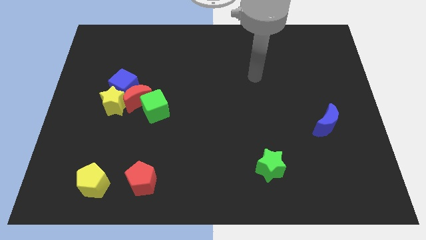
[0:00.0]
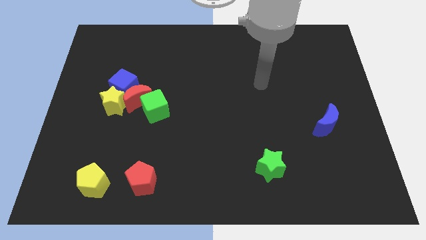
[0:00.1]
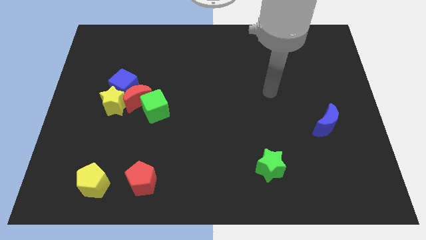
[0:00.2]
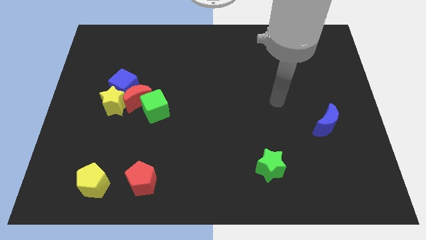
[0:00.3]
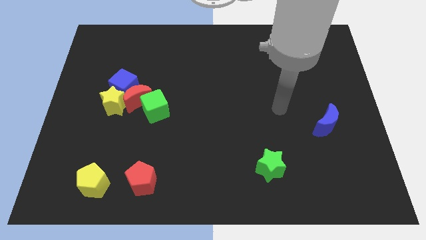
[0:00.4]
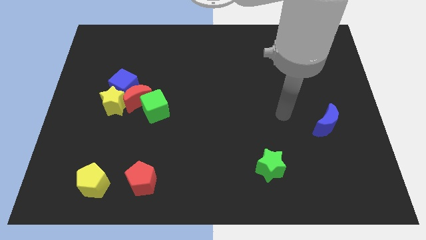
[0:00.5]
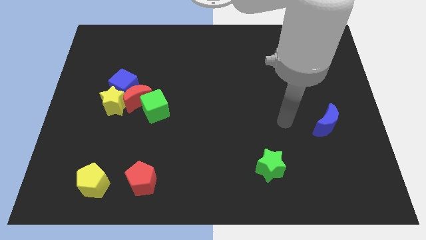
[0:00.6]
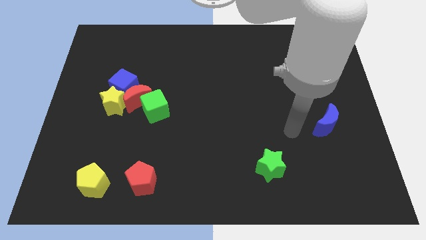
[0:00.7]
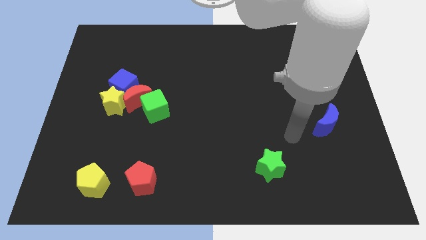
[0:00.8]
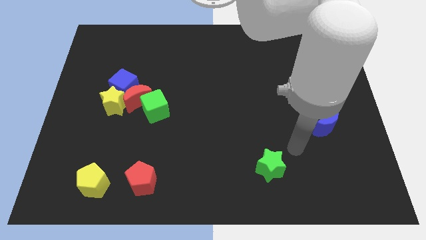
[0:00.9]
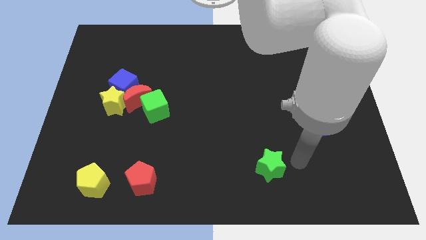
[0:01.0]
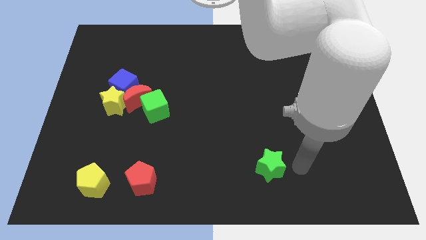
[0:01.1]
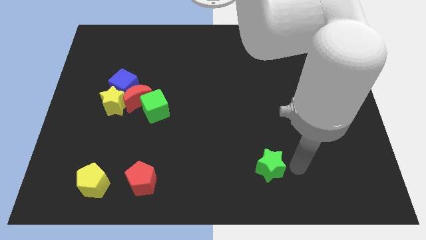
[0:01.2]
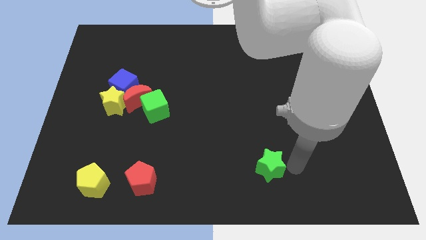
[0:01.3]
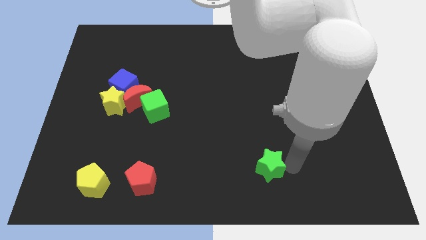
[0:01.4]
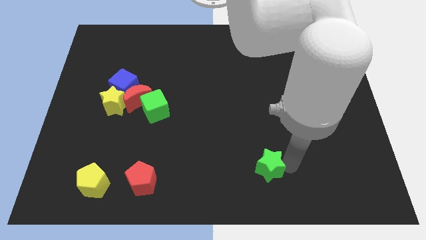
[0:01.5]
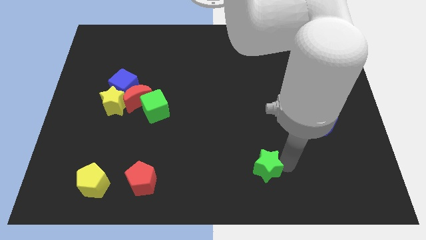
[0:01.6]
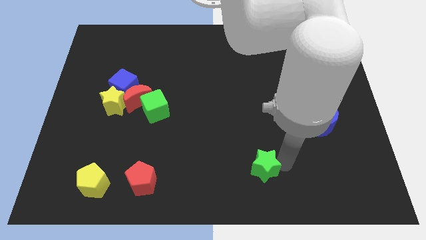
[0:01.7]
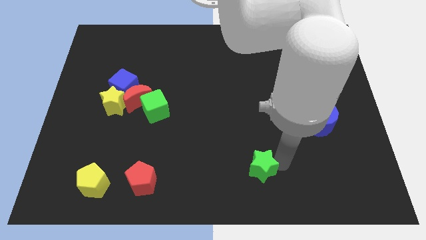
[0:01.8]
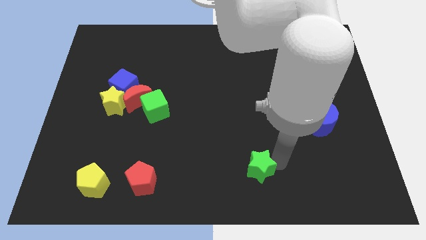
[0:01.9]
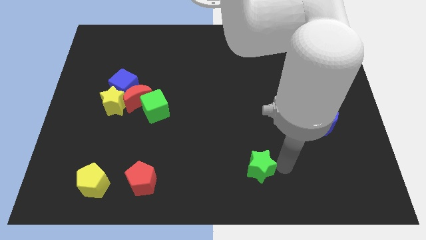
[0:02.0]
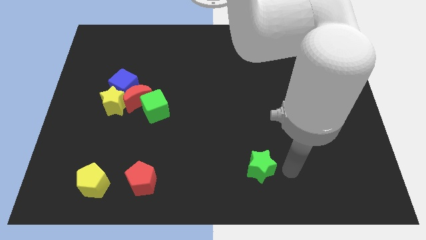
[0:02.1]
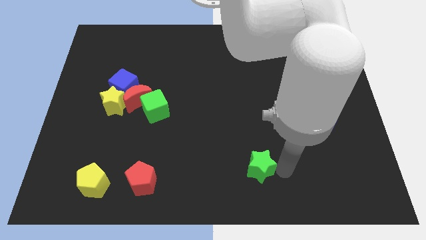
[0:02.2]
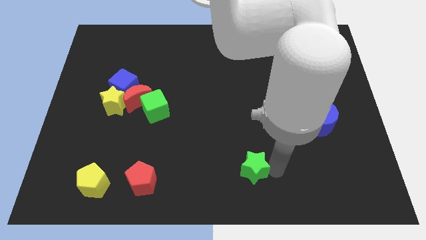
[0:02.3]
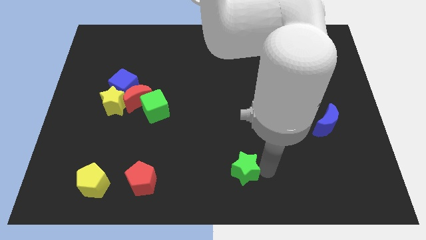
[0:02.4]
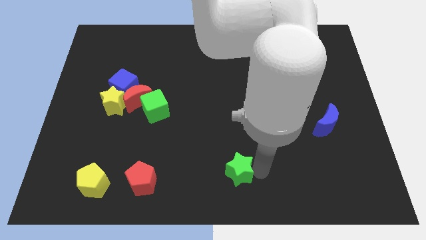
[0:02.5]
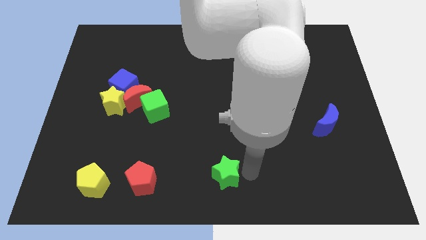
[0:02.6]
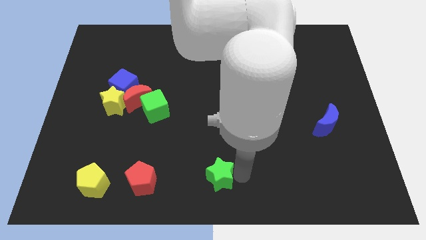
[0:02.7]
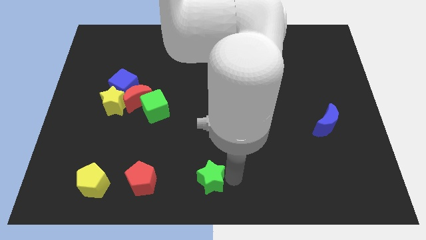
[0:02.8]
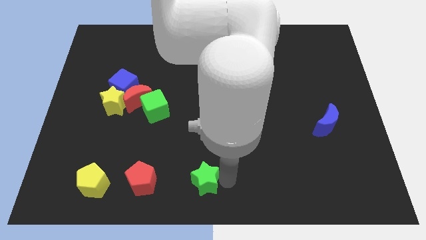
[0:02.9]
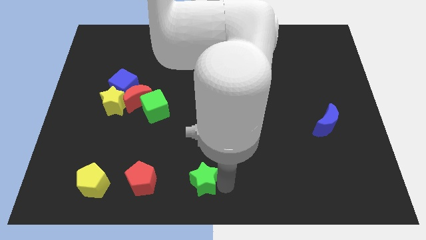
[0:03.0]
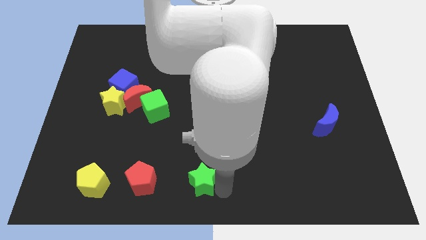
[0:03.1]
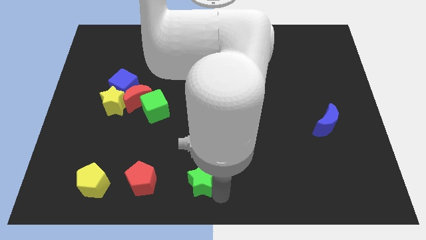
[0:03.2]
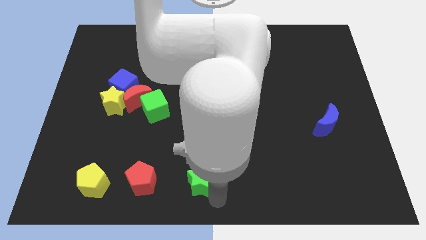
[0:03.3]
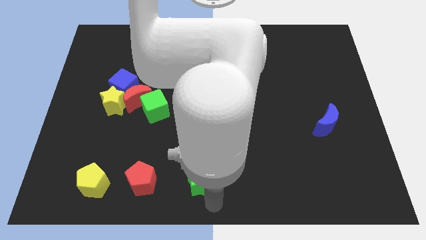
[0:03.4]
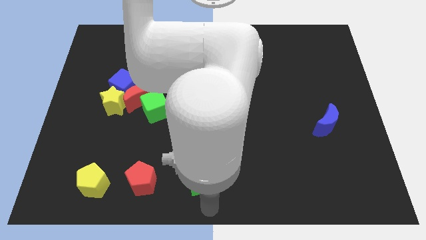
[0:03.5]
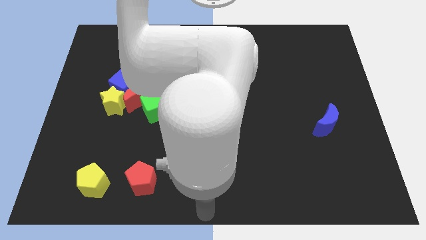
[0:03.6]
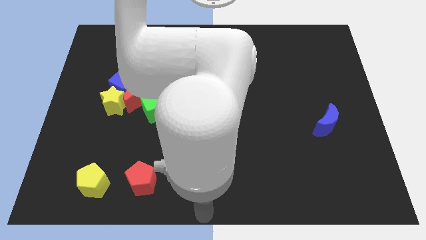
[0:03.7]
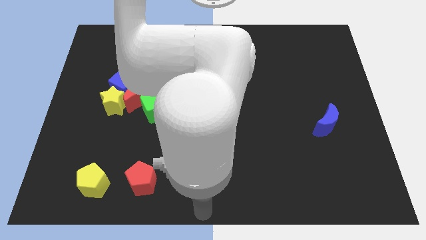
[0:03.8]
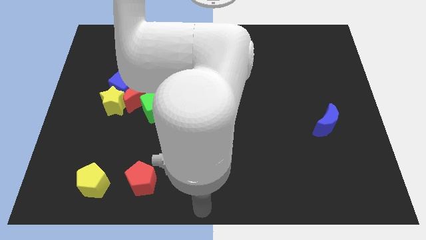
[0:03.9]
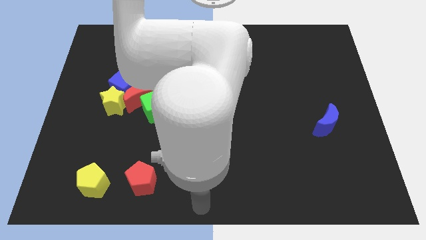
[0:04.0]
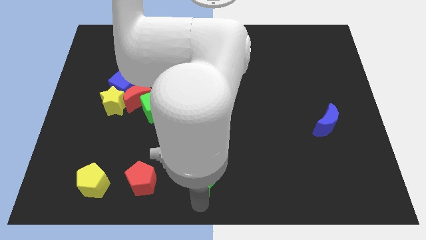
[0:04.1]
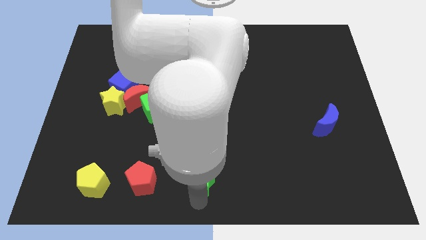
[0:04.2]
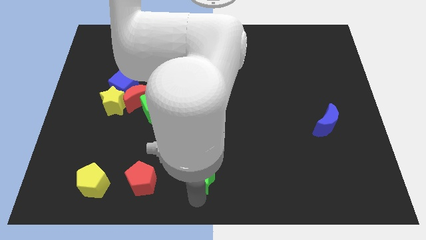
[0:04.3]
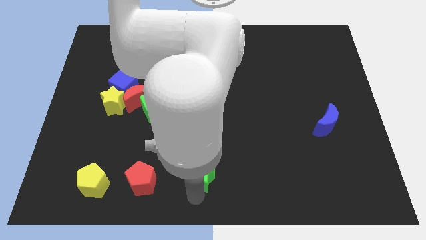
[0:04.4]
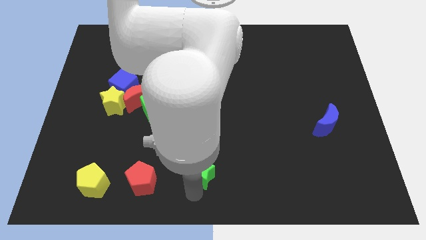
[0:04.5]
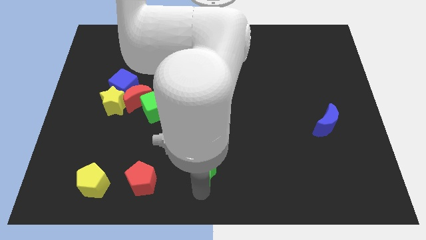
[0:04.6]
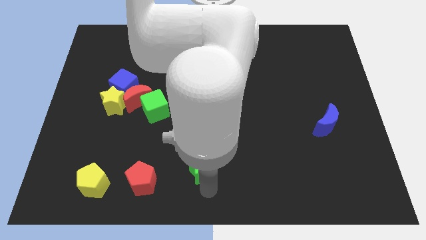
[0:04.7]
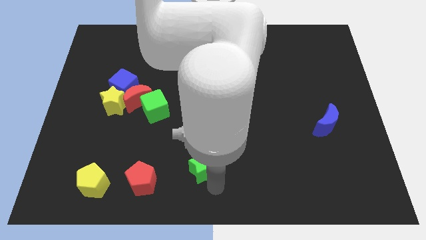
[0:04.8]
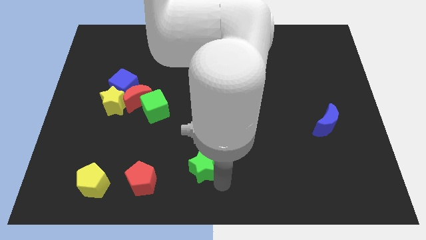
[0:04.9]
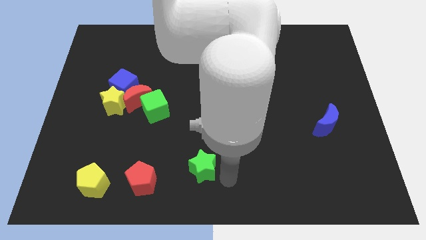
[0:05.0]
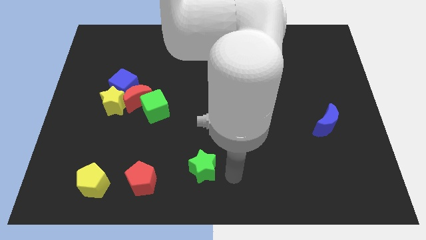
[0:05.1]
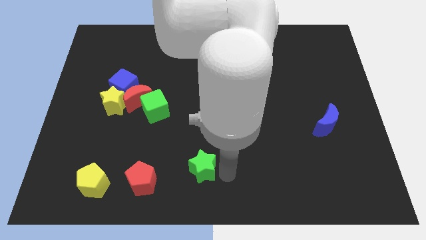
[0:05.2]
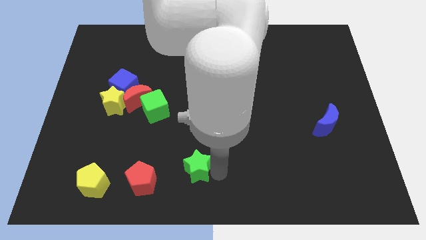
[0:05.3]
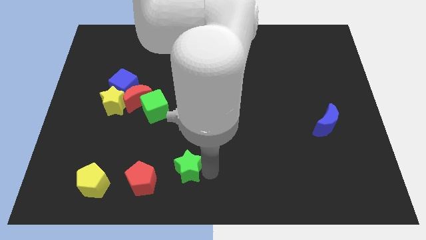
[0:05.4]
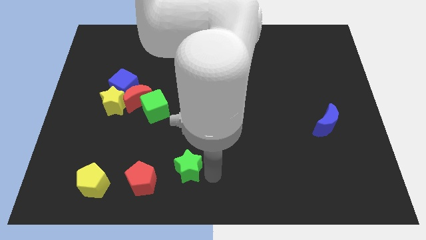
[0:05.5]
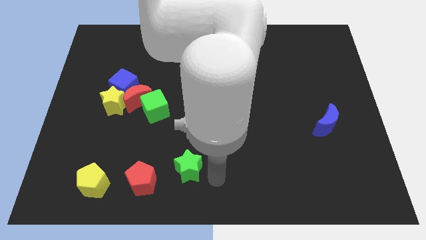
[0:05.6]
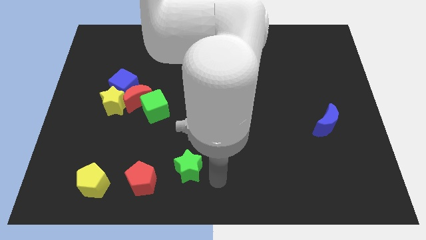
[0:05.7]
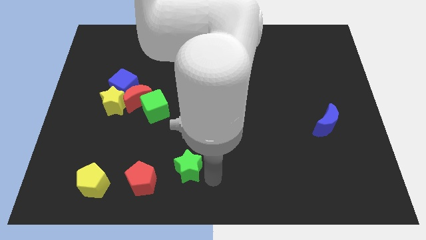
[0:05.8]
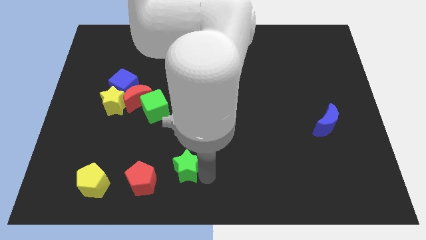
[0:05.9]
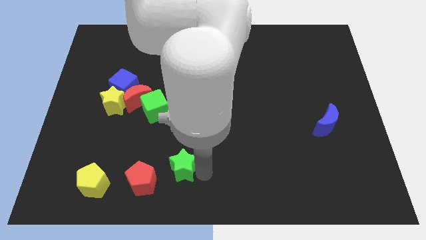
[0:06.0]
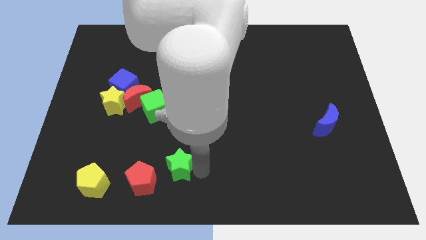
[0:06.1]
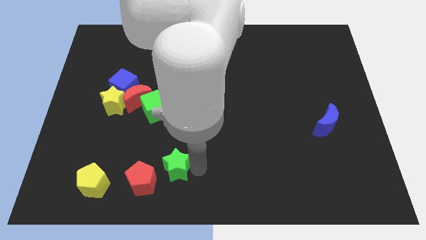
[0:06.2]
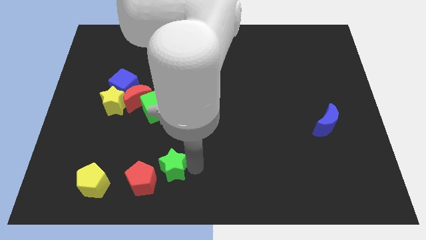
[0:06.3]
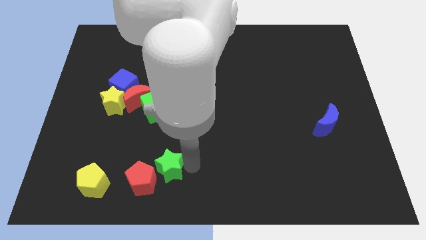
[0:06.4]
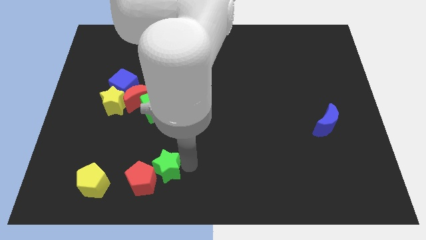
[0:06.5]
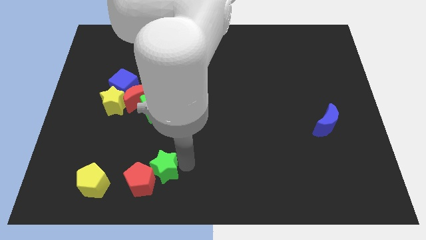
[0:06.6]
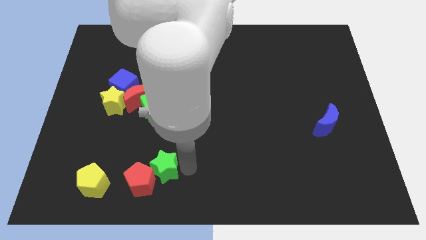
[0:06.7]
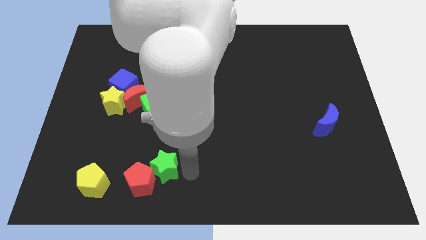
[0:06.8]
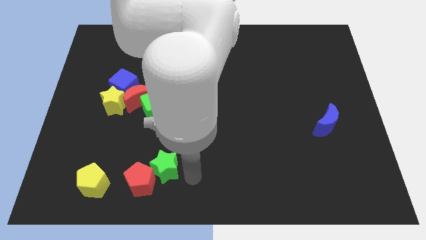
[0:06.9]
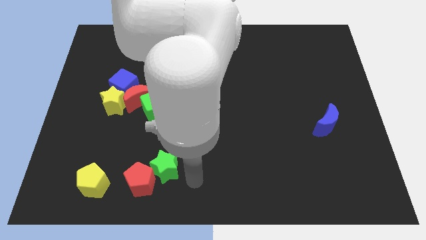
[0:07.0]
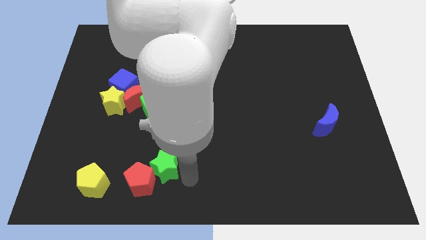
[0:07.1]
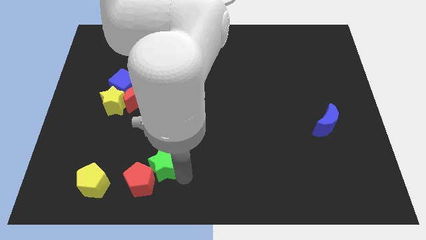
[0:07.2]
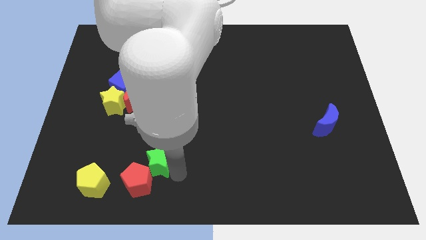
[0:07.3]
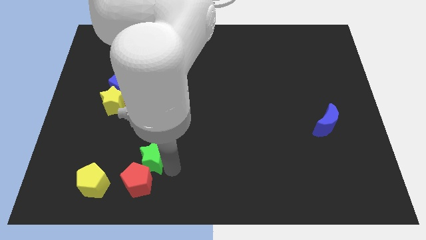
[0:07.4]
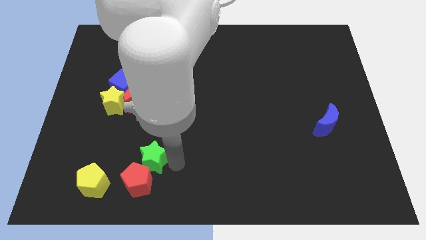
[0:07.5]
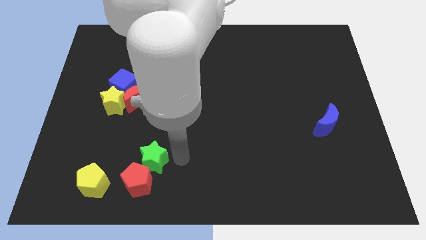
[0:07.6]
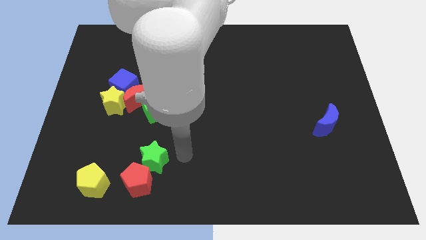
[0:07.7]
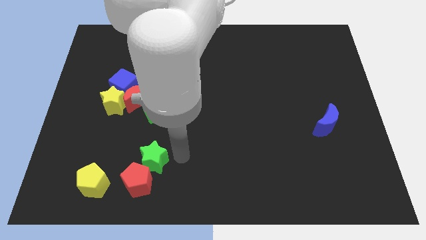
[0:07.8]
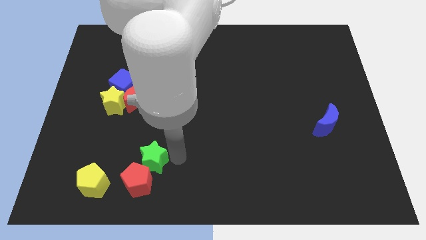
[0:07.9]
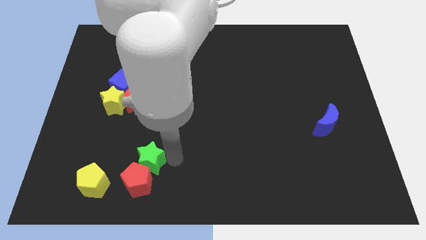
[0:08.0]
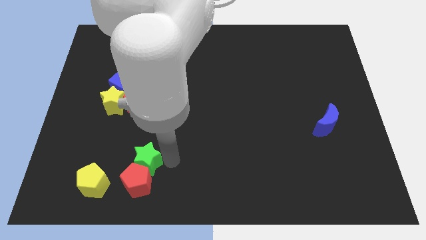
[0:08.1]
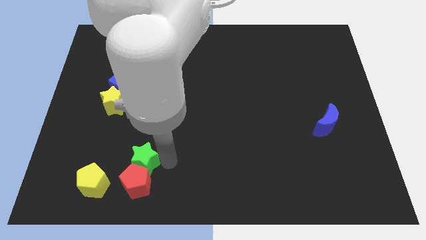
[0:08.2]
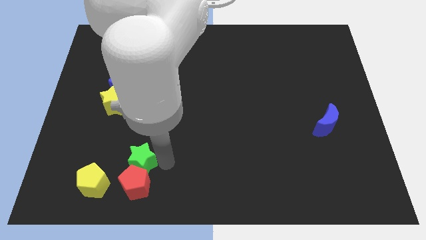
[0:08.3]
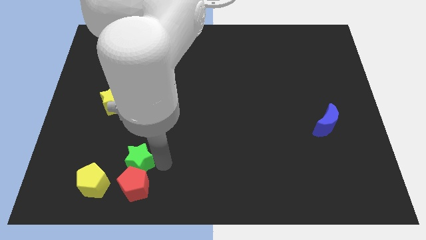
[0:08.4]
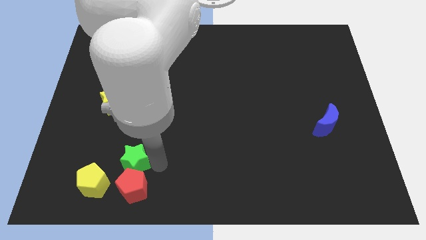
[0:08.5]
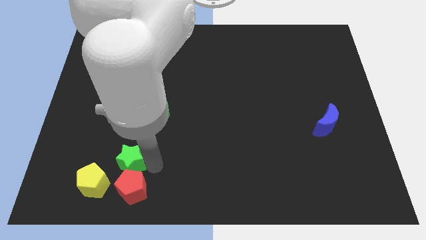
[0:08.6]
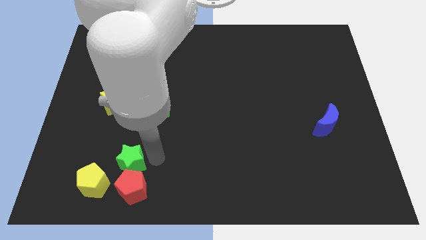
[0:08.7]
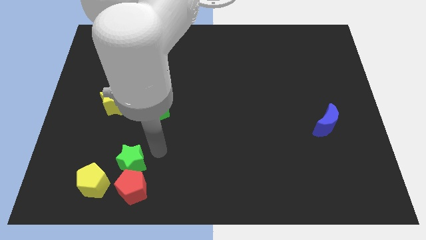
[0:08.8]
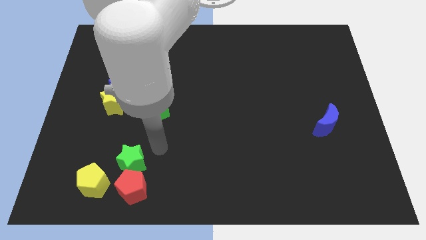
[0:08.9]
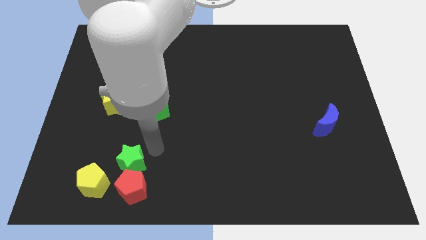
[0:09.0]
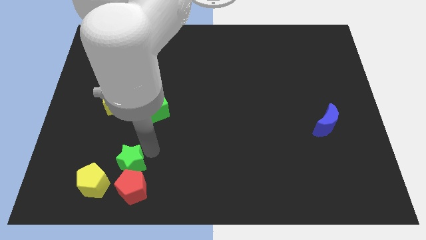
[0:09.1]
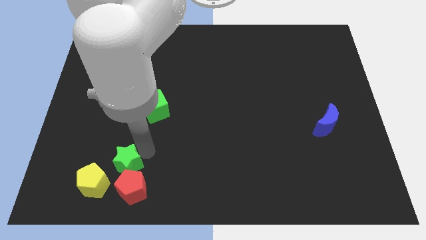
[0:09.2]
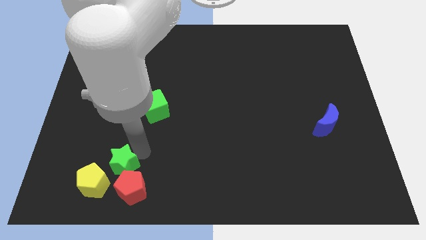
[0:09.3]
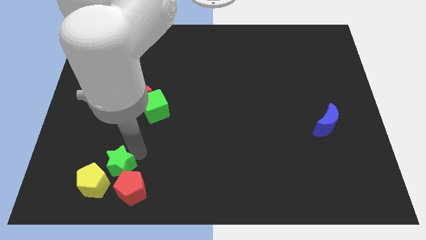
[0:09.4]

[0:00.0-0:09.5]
put the green star towards the yellow pentagon
